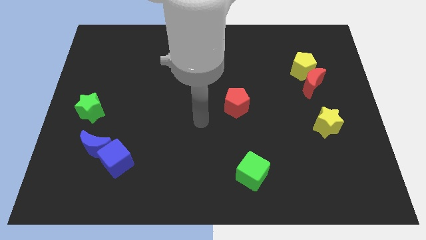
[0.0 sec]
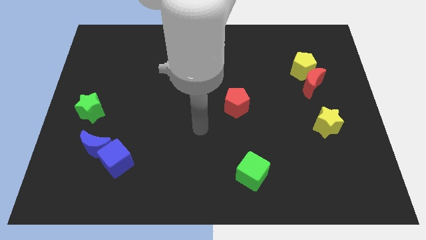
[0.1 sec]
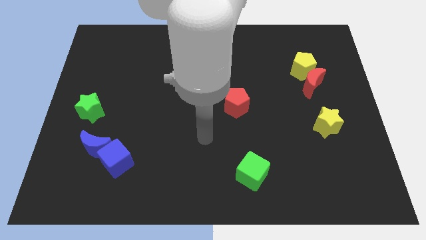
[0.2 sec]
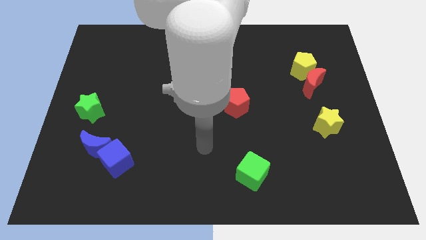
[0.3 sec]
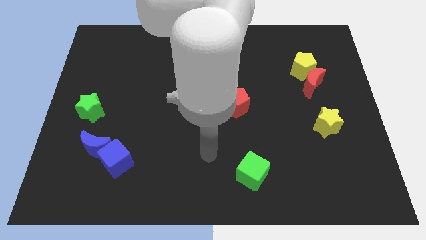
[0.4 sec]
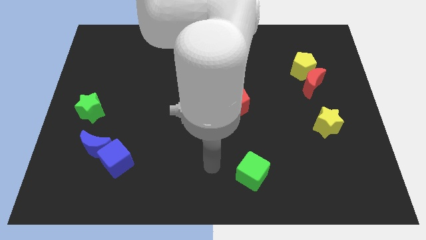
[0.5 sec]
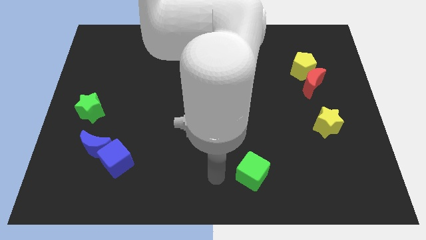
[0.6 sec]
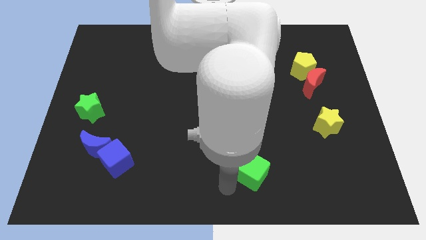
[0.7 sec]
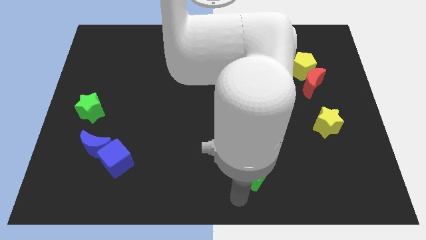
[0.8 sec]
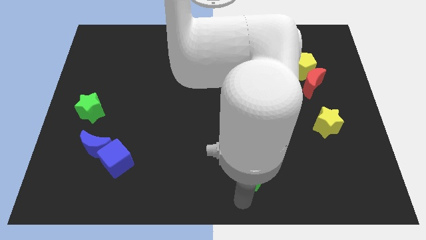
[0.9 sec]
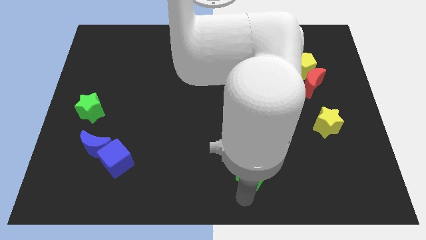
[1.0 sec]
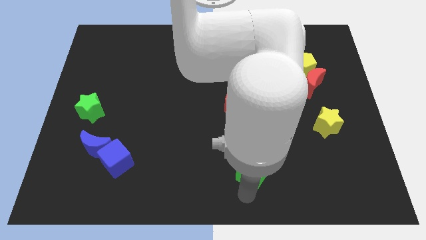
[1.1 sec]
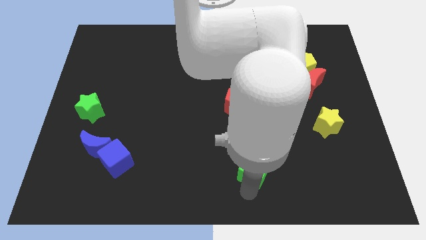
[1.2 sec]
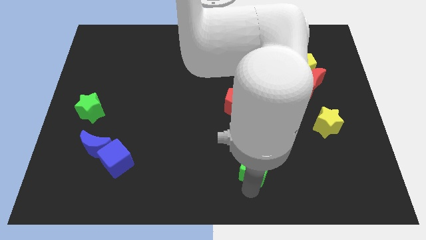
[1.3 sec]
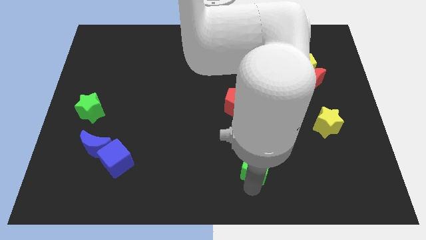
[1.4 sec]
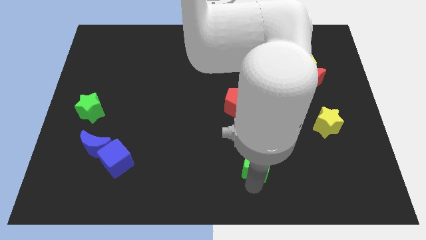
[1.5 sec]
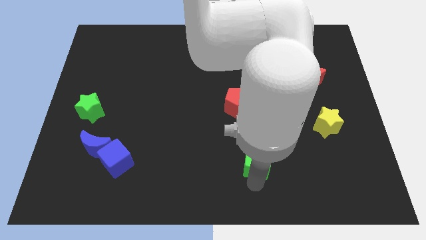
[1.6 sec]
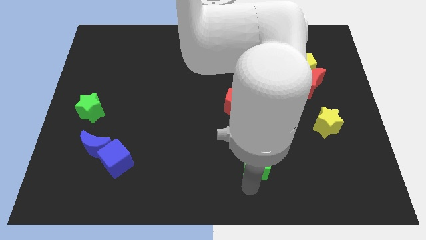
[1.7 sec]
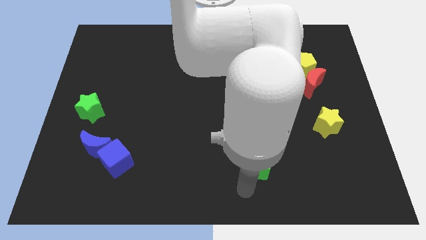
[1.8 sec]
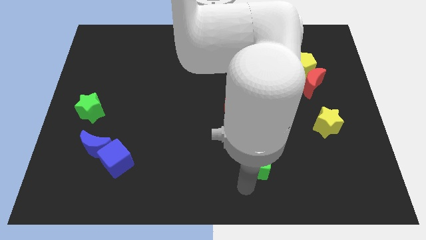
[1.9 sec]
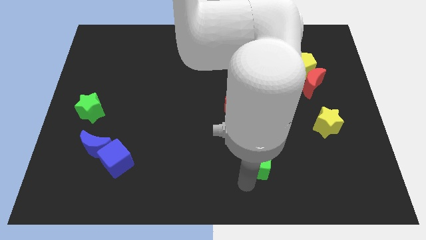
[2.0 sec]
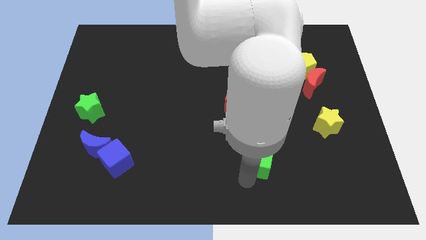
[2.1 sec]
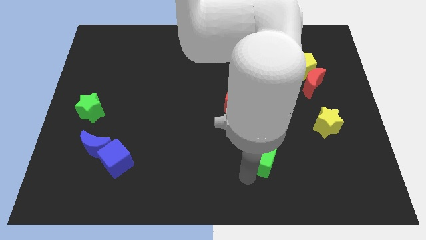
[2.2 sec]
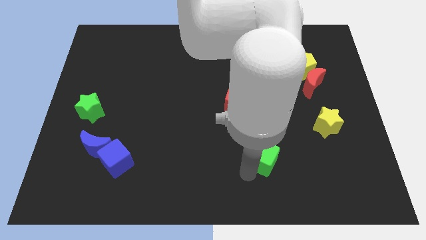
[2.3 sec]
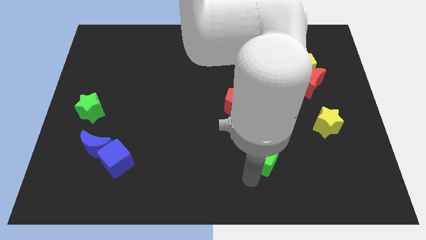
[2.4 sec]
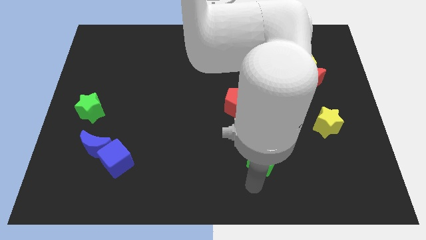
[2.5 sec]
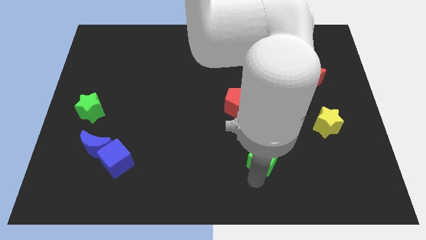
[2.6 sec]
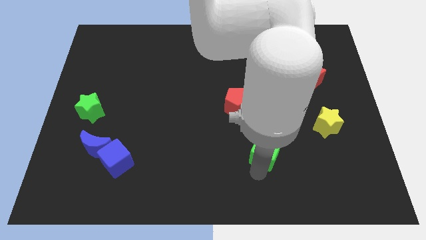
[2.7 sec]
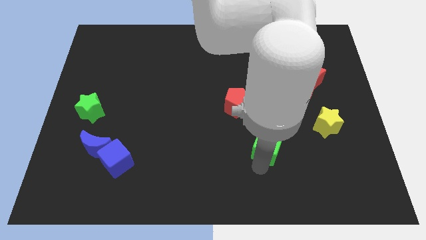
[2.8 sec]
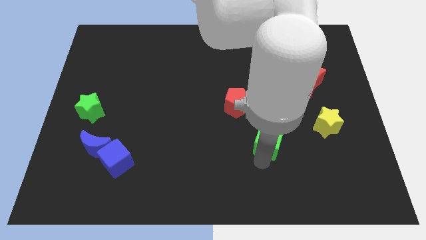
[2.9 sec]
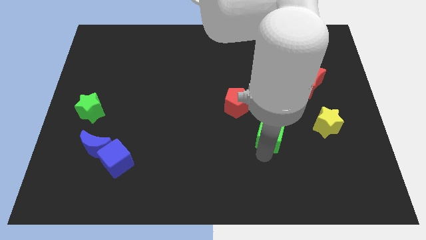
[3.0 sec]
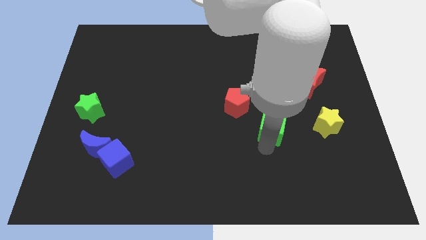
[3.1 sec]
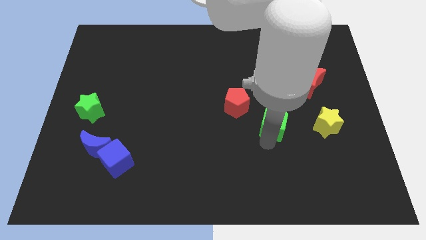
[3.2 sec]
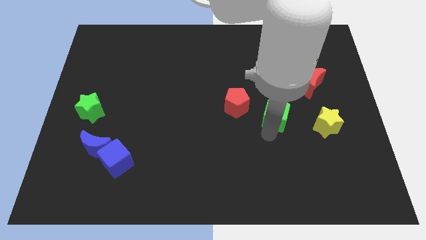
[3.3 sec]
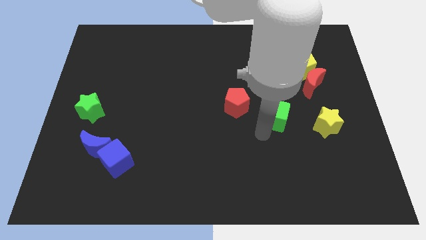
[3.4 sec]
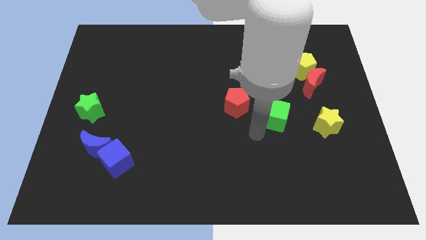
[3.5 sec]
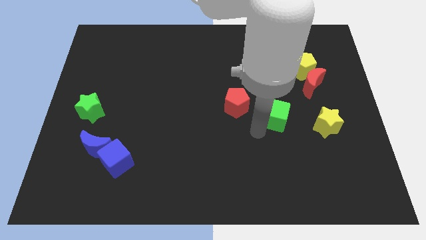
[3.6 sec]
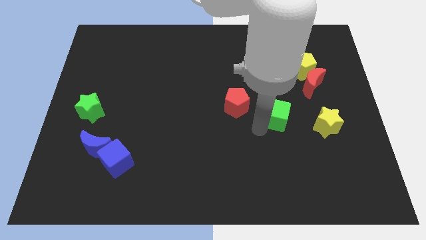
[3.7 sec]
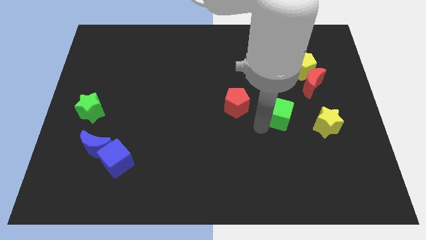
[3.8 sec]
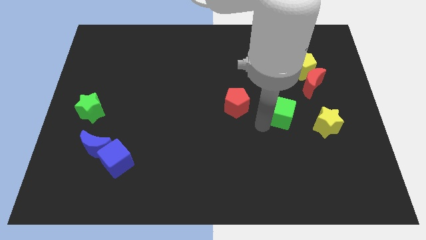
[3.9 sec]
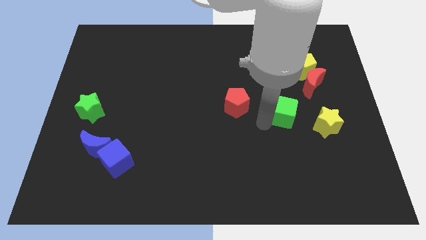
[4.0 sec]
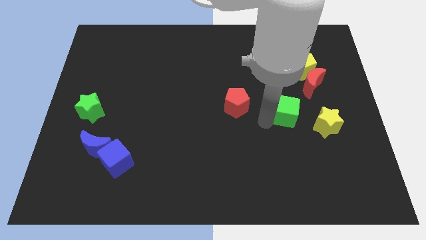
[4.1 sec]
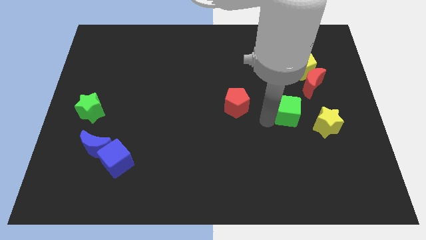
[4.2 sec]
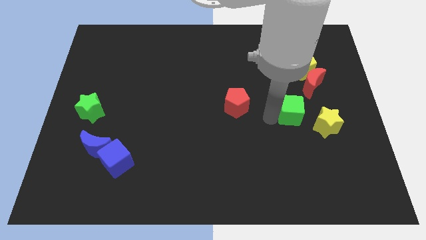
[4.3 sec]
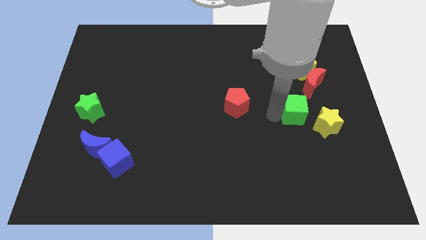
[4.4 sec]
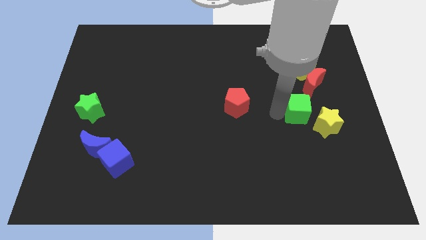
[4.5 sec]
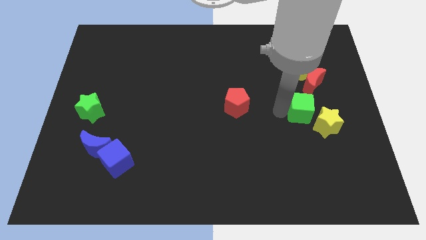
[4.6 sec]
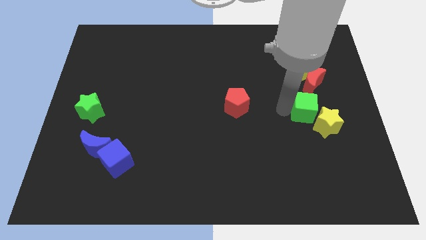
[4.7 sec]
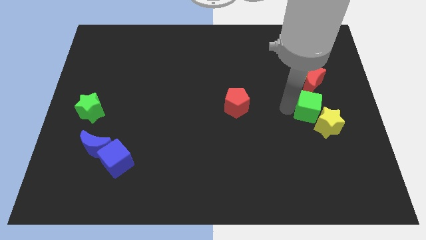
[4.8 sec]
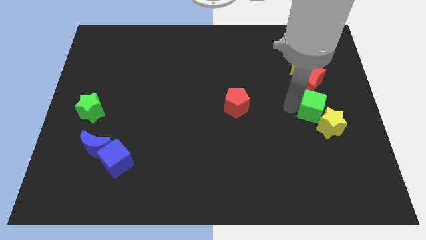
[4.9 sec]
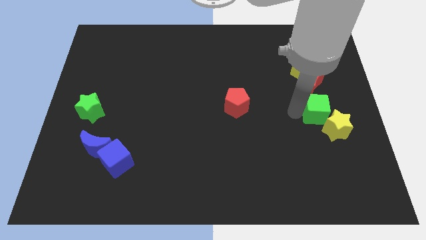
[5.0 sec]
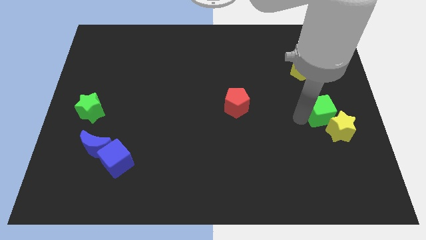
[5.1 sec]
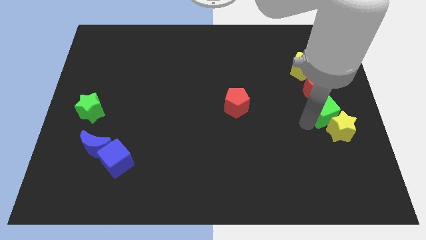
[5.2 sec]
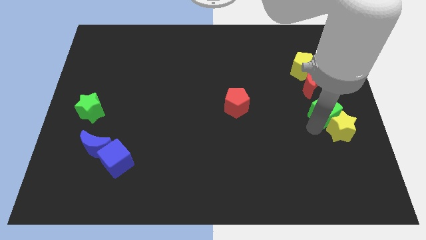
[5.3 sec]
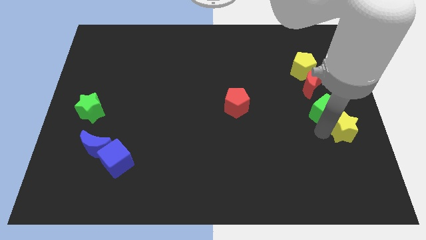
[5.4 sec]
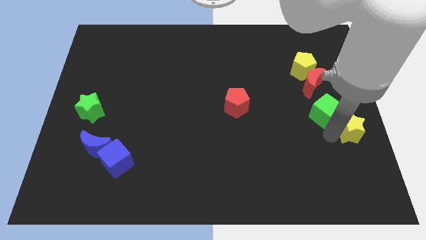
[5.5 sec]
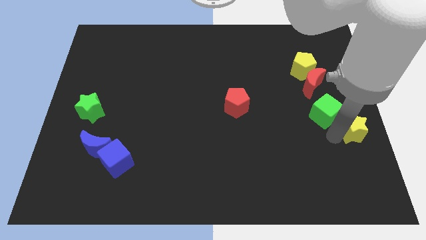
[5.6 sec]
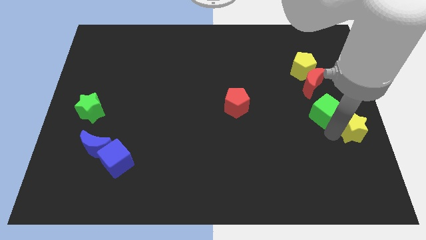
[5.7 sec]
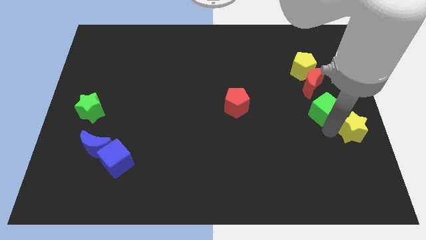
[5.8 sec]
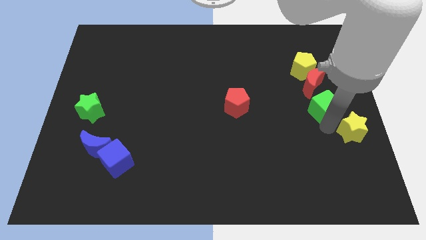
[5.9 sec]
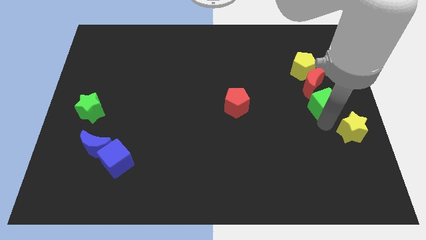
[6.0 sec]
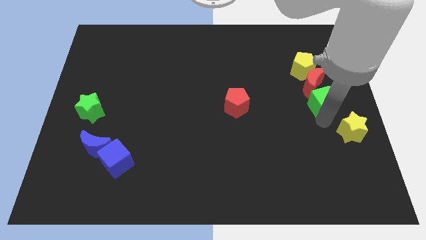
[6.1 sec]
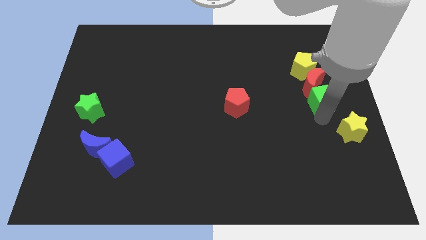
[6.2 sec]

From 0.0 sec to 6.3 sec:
move the green cube close to the red moon

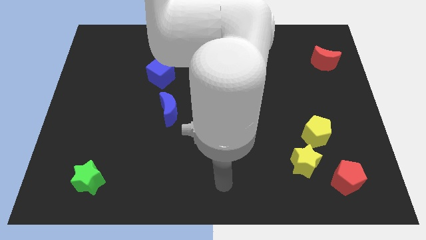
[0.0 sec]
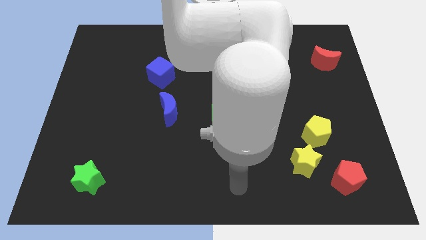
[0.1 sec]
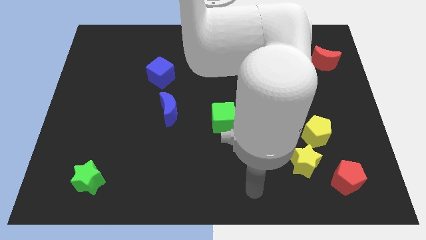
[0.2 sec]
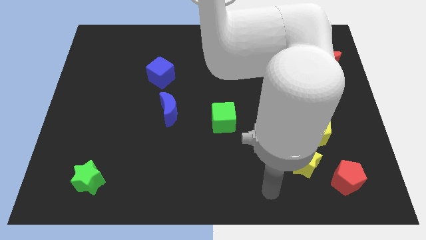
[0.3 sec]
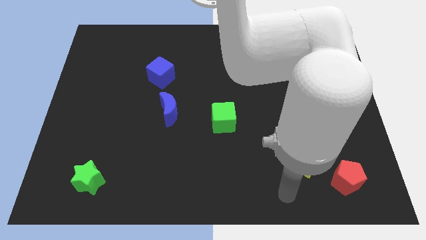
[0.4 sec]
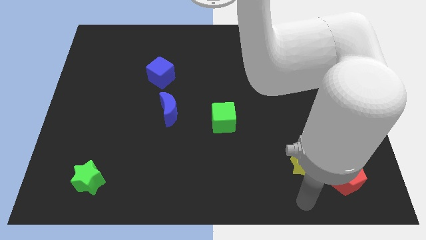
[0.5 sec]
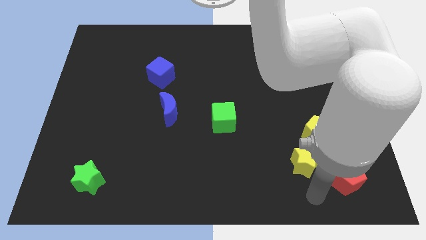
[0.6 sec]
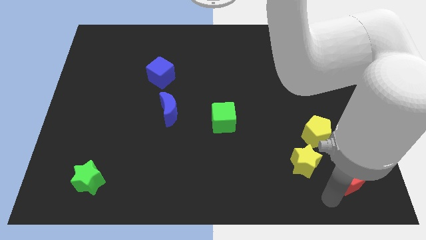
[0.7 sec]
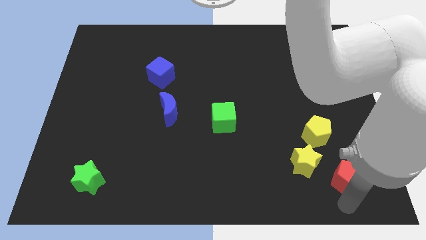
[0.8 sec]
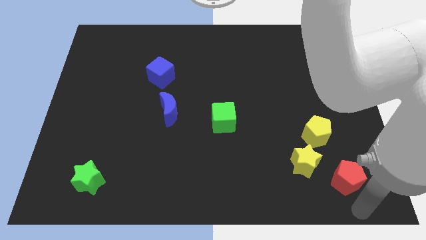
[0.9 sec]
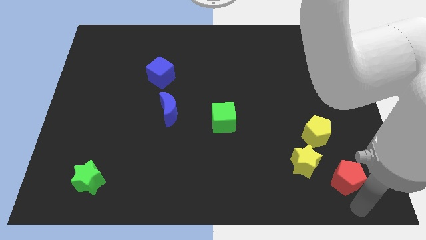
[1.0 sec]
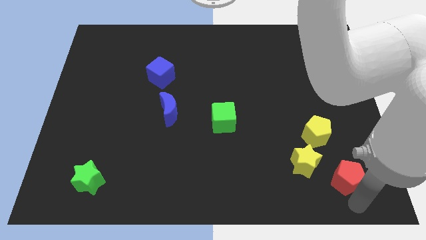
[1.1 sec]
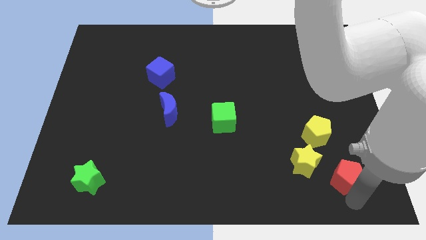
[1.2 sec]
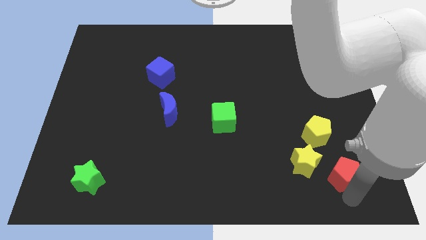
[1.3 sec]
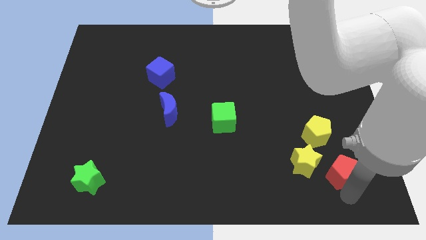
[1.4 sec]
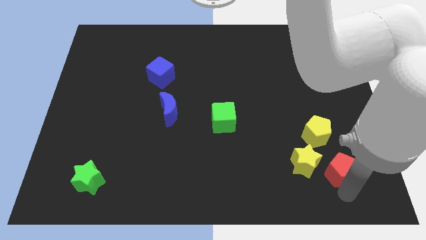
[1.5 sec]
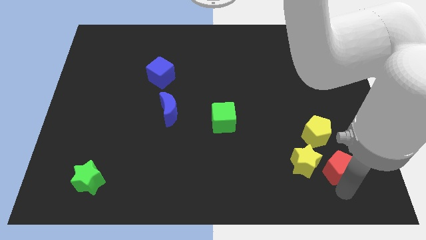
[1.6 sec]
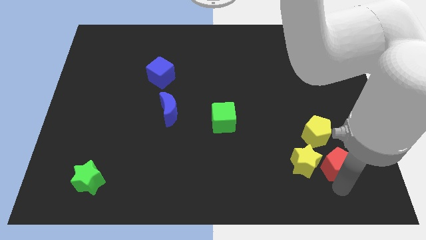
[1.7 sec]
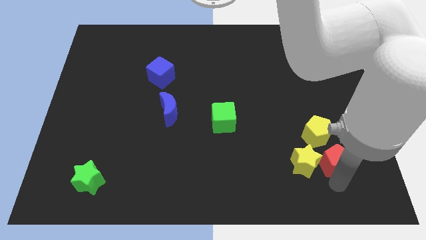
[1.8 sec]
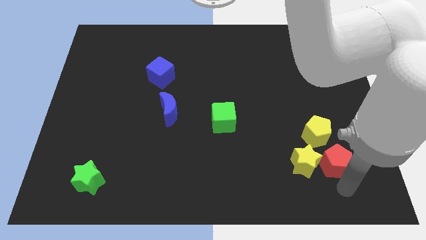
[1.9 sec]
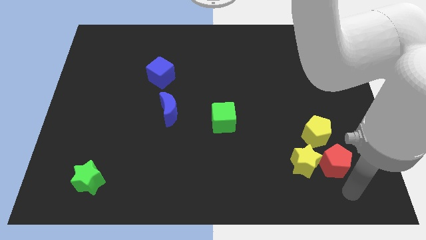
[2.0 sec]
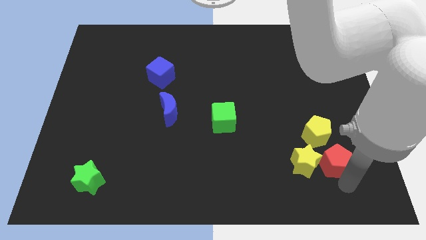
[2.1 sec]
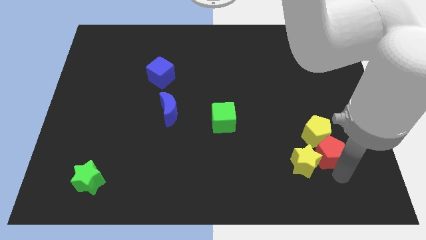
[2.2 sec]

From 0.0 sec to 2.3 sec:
slide the red pentagon next to the yellow pentagon
